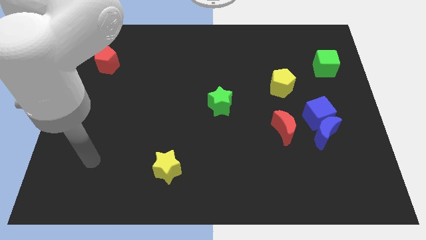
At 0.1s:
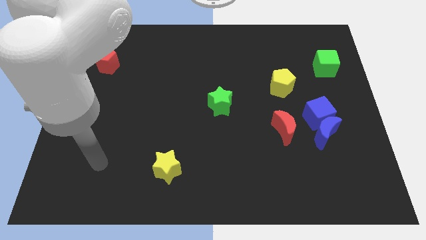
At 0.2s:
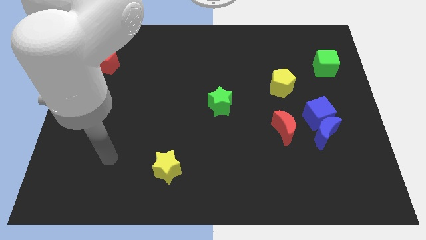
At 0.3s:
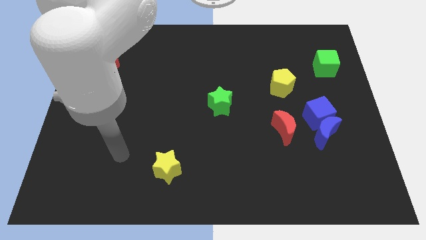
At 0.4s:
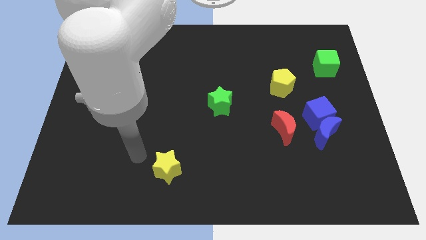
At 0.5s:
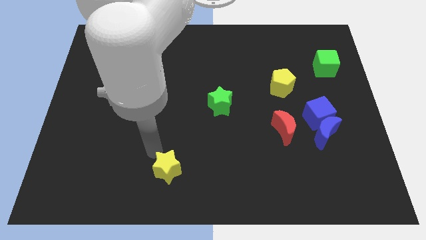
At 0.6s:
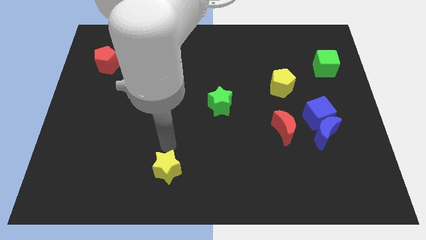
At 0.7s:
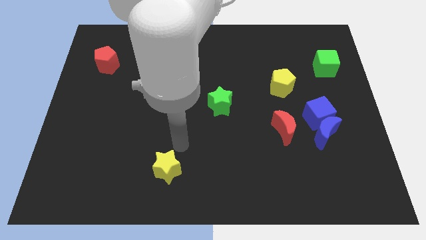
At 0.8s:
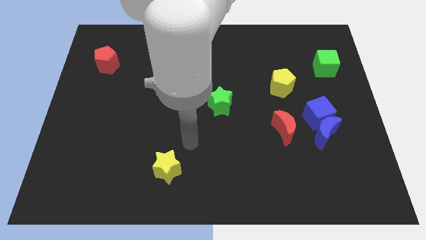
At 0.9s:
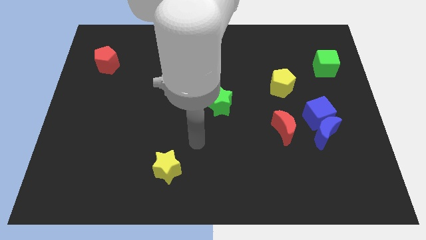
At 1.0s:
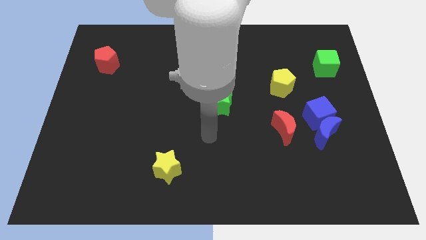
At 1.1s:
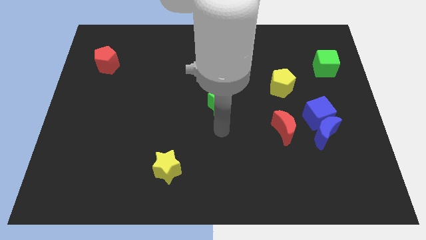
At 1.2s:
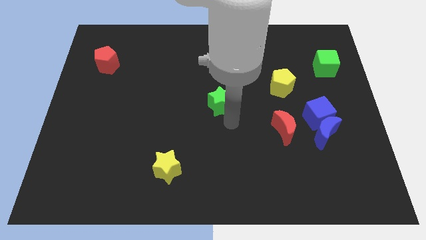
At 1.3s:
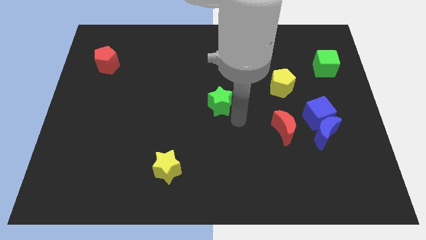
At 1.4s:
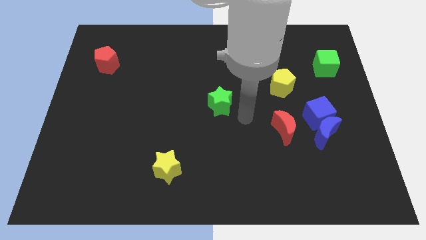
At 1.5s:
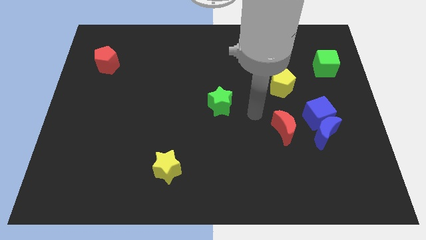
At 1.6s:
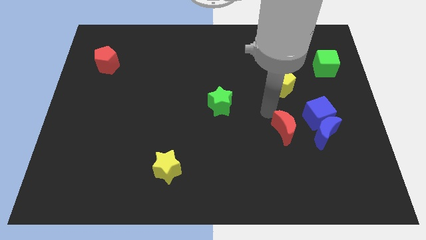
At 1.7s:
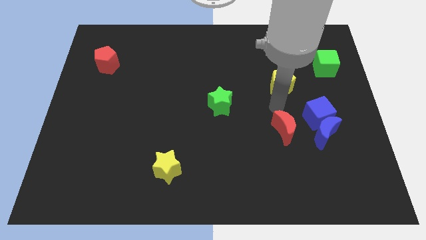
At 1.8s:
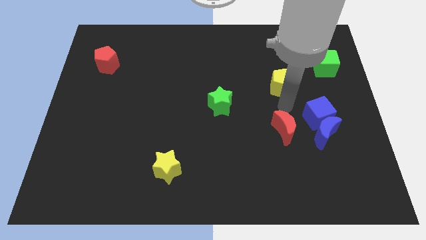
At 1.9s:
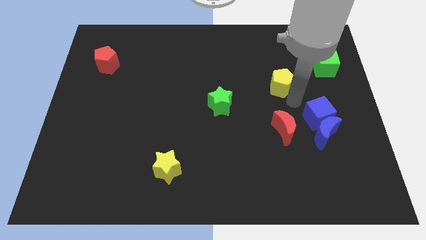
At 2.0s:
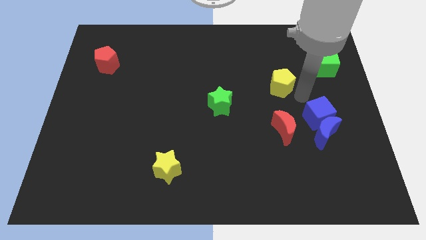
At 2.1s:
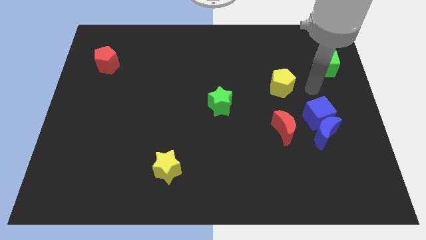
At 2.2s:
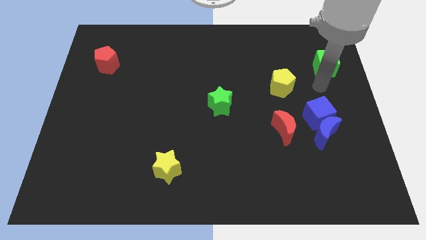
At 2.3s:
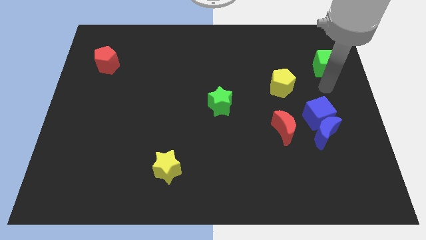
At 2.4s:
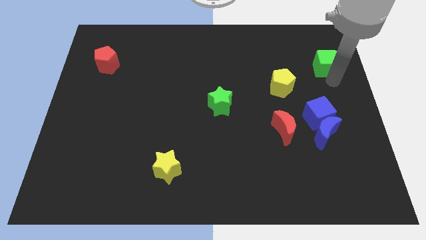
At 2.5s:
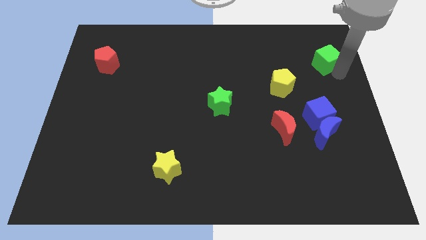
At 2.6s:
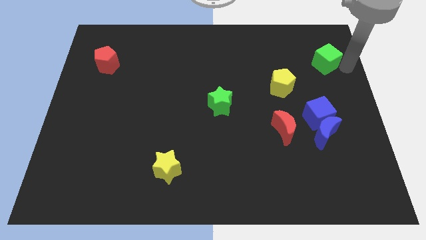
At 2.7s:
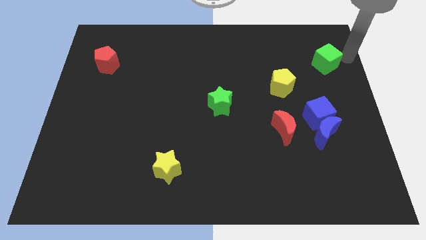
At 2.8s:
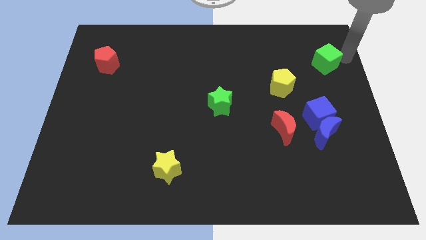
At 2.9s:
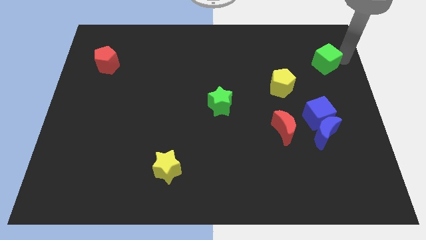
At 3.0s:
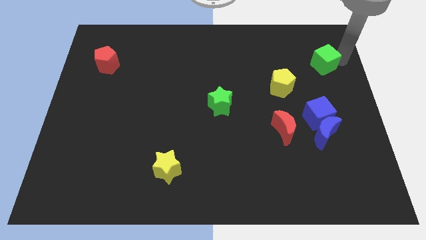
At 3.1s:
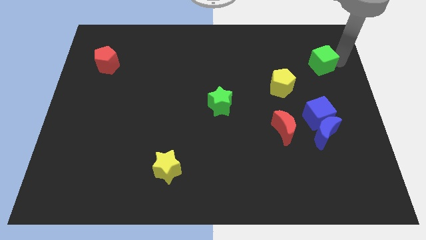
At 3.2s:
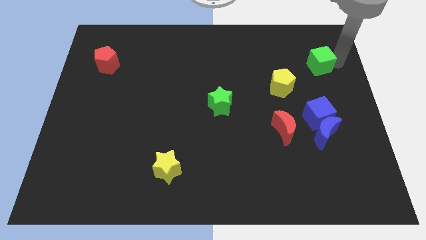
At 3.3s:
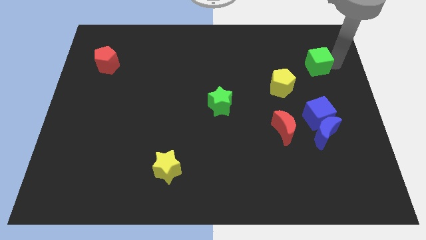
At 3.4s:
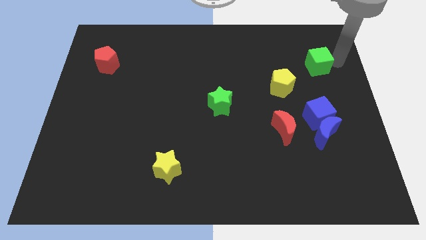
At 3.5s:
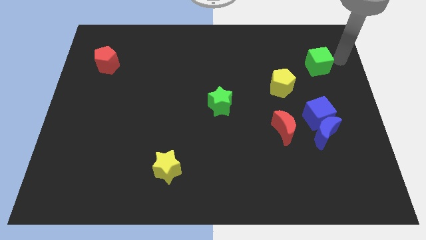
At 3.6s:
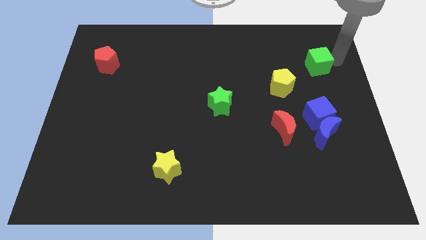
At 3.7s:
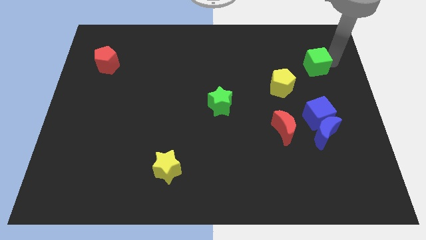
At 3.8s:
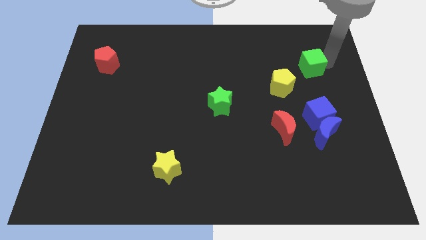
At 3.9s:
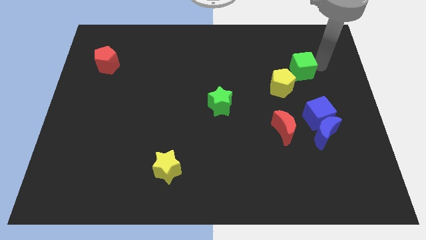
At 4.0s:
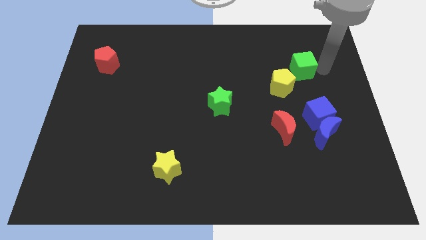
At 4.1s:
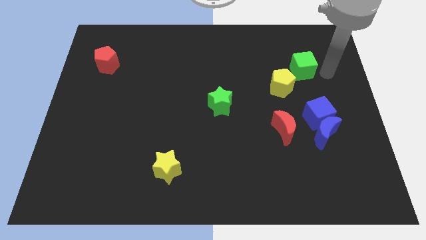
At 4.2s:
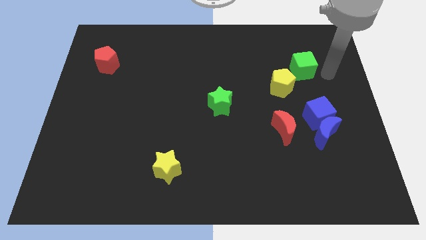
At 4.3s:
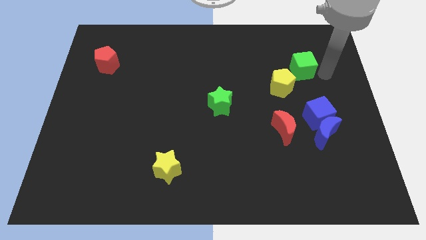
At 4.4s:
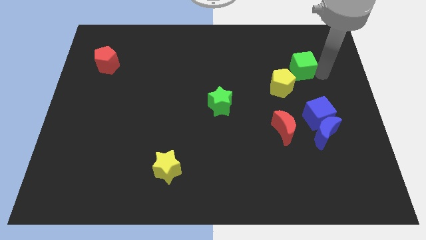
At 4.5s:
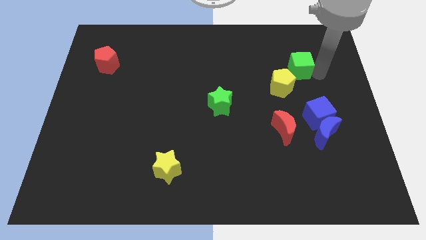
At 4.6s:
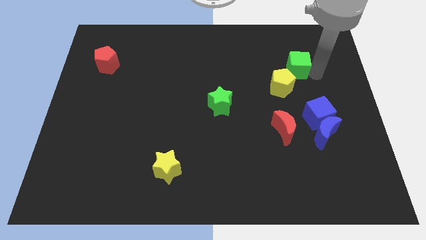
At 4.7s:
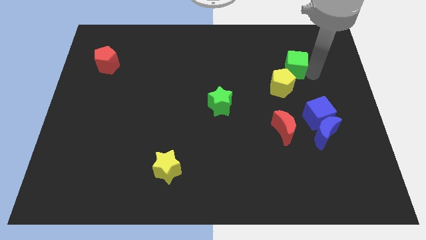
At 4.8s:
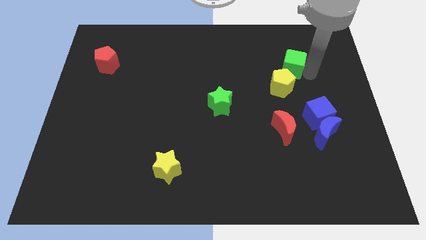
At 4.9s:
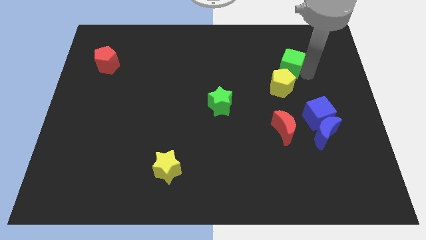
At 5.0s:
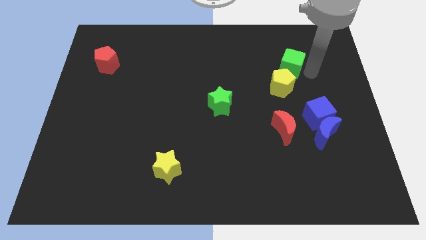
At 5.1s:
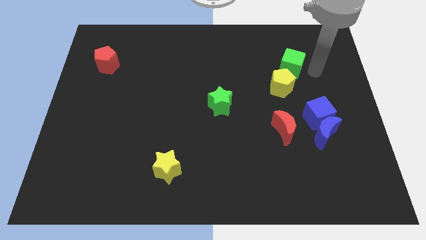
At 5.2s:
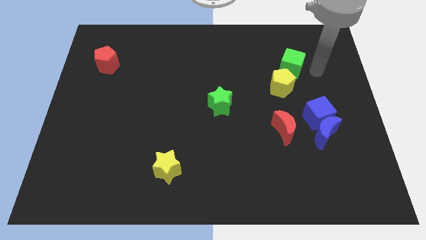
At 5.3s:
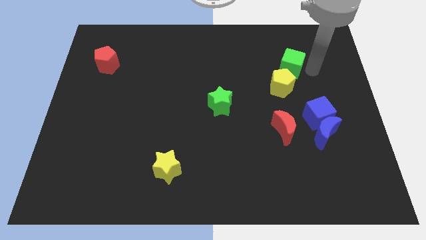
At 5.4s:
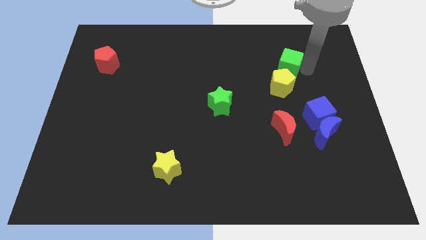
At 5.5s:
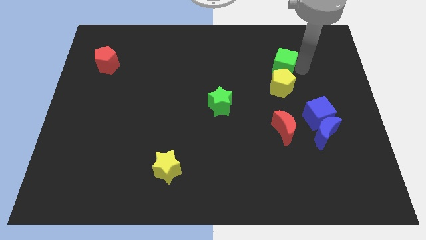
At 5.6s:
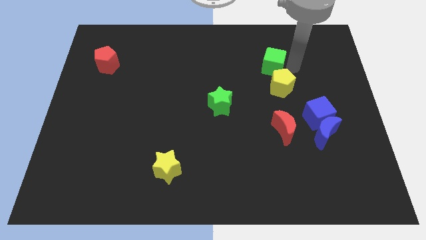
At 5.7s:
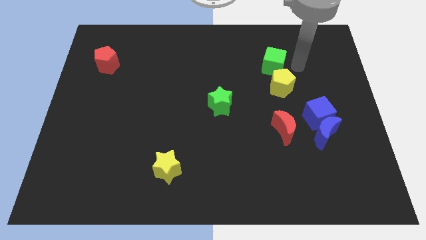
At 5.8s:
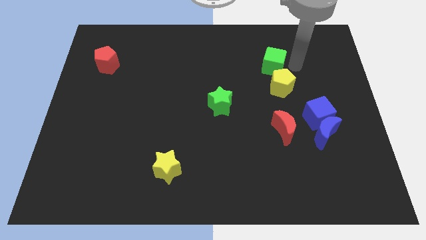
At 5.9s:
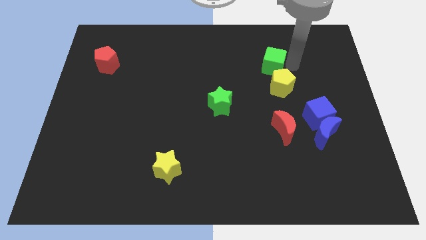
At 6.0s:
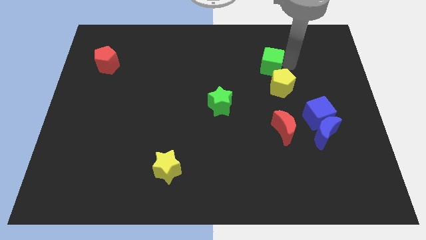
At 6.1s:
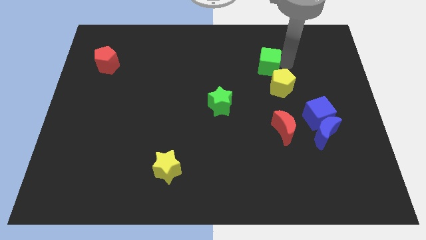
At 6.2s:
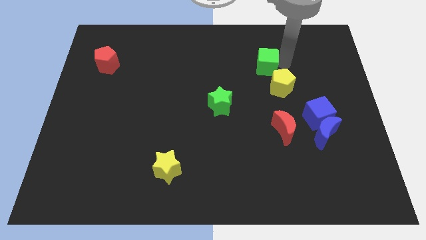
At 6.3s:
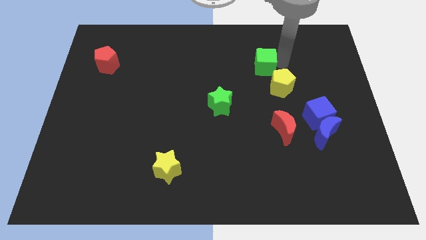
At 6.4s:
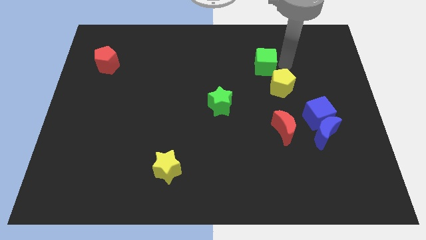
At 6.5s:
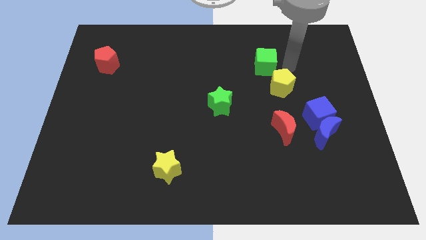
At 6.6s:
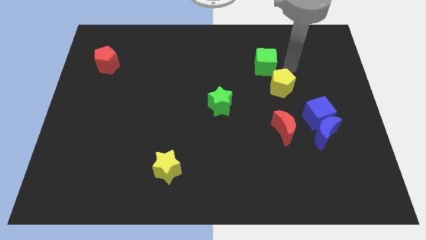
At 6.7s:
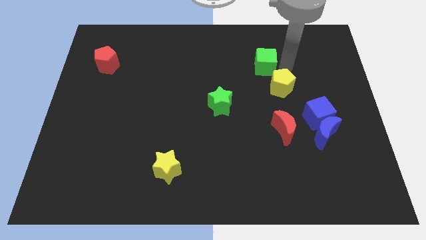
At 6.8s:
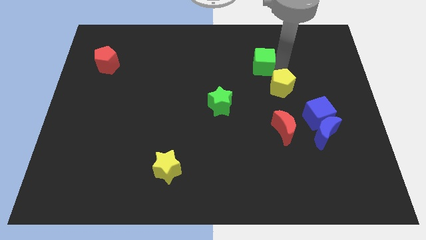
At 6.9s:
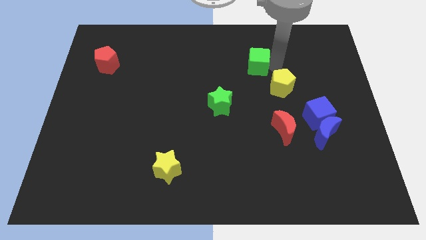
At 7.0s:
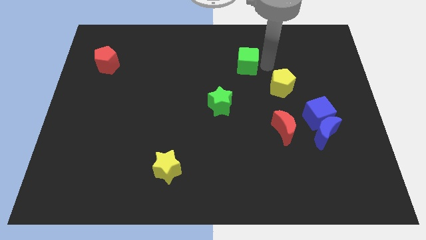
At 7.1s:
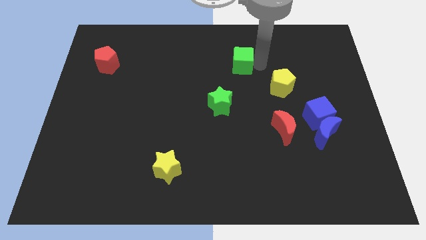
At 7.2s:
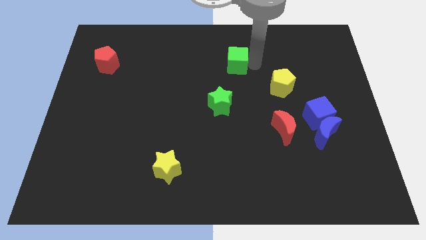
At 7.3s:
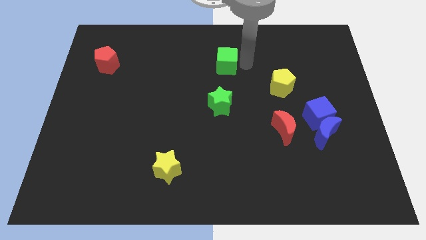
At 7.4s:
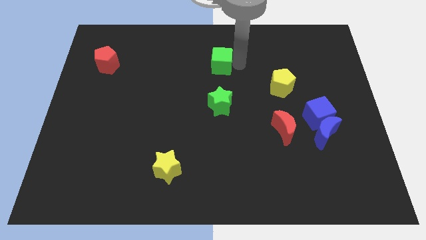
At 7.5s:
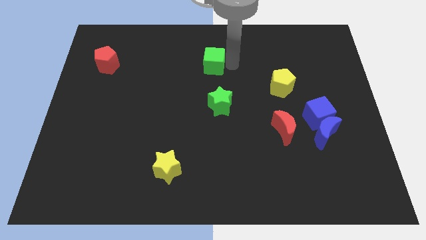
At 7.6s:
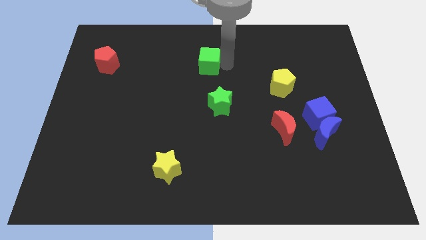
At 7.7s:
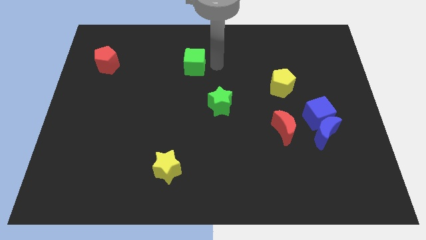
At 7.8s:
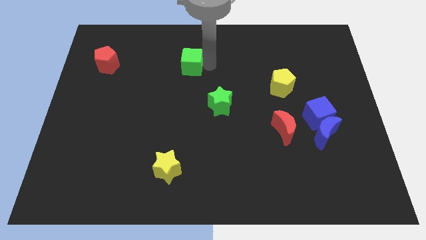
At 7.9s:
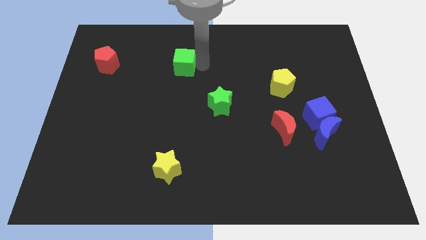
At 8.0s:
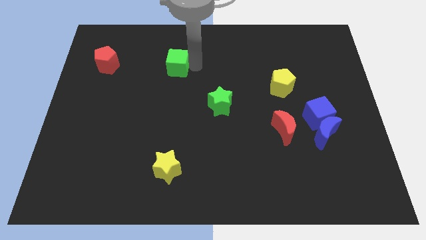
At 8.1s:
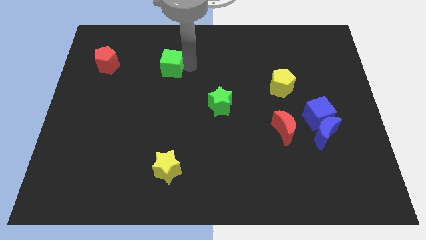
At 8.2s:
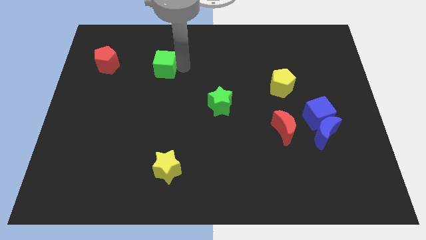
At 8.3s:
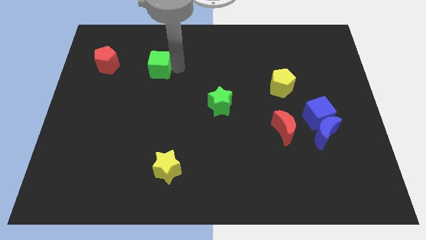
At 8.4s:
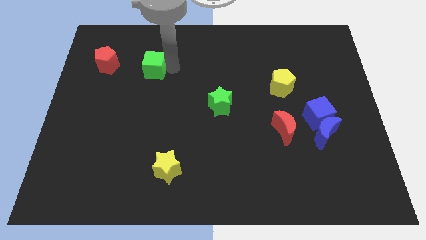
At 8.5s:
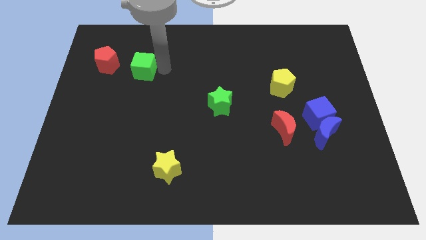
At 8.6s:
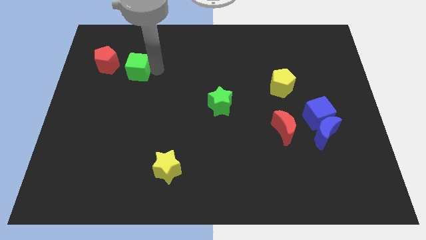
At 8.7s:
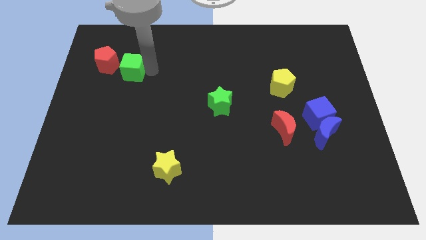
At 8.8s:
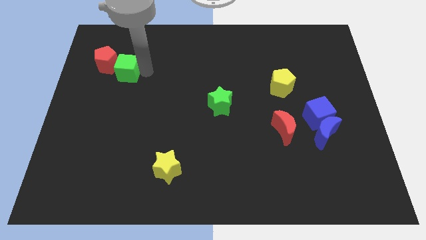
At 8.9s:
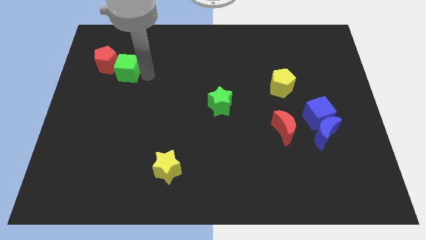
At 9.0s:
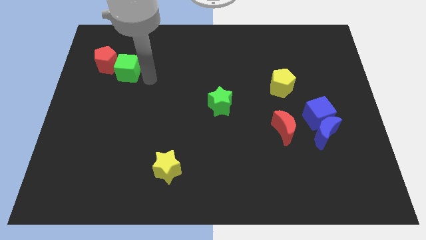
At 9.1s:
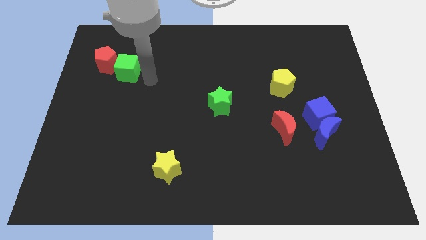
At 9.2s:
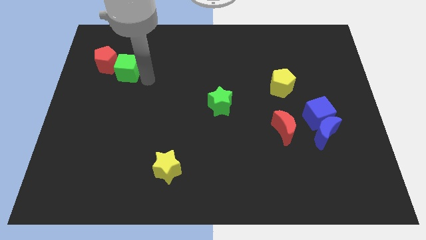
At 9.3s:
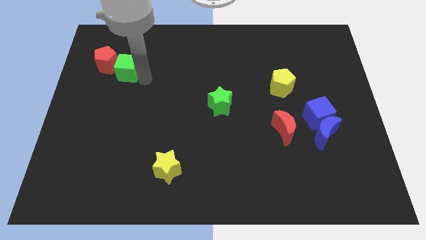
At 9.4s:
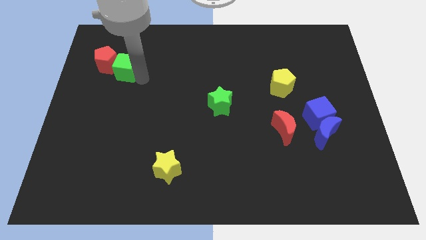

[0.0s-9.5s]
push the green cube close to the red pentagon
